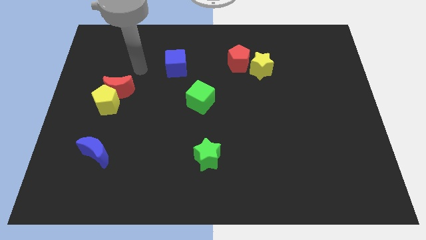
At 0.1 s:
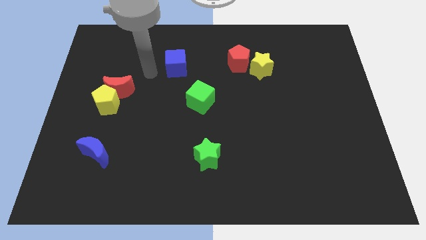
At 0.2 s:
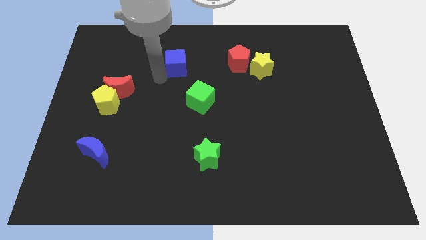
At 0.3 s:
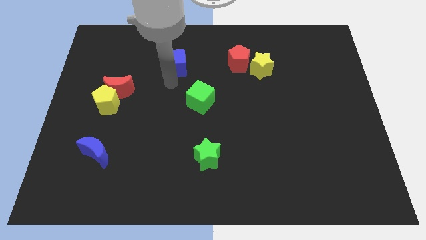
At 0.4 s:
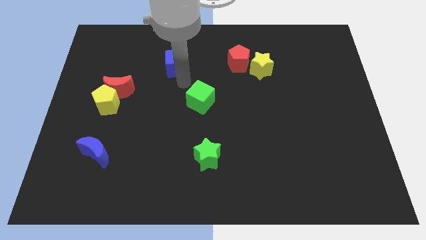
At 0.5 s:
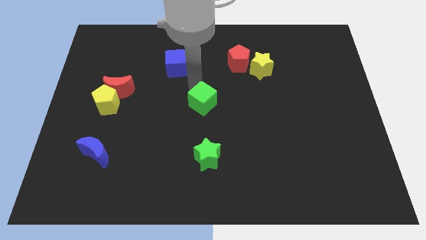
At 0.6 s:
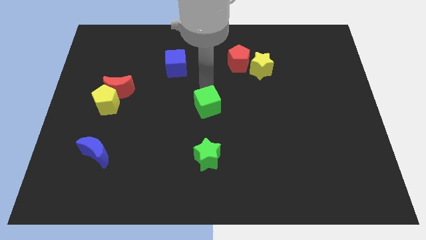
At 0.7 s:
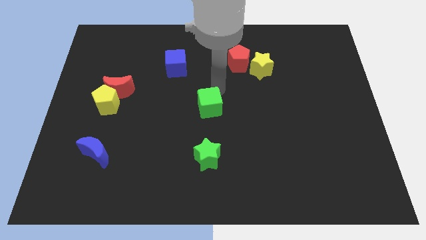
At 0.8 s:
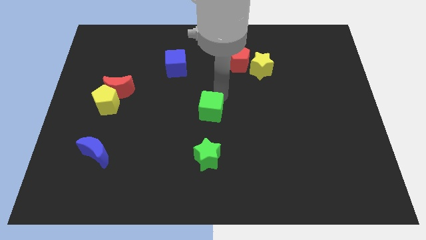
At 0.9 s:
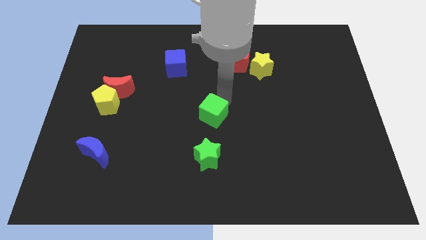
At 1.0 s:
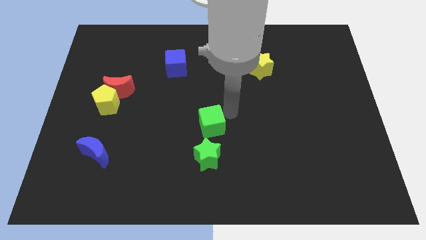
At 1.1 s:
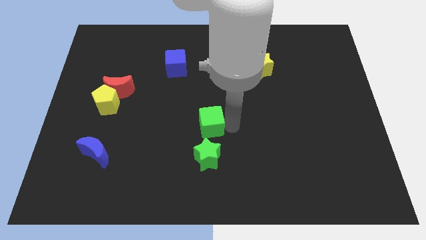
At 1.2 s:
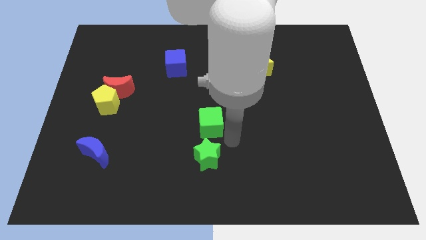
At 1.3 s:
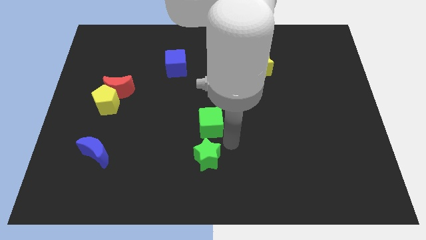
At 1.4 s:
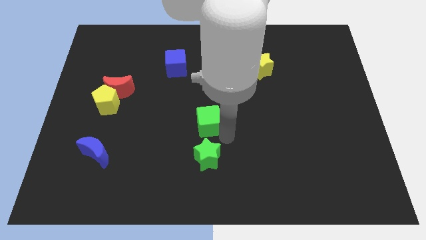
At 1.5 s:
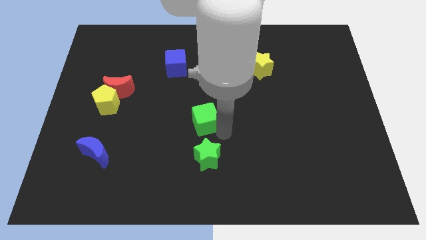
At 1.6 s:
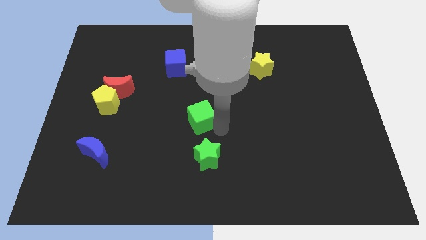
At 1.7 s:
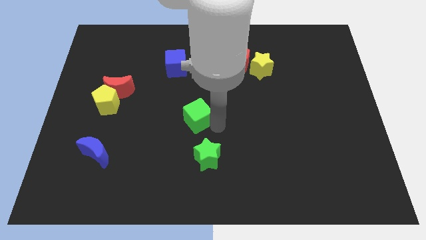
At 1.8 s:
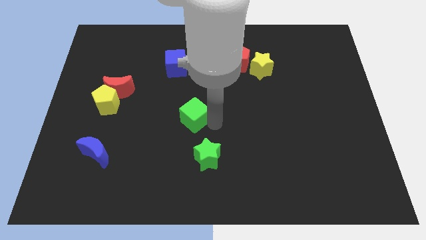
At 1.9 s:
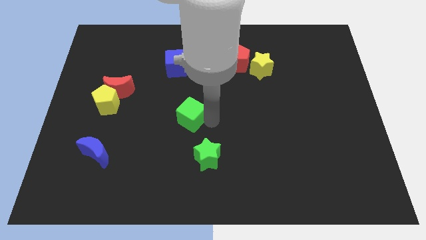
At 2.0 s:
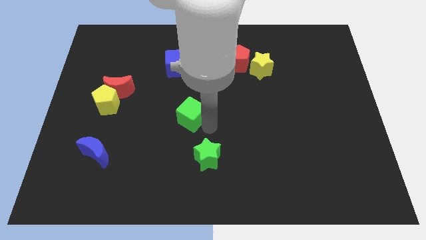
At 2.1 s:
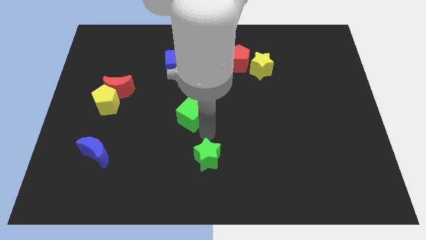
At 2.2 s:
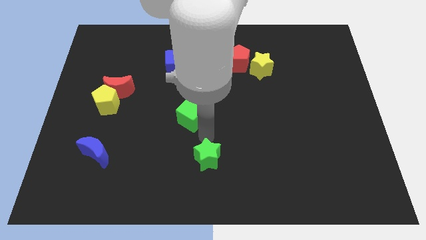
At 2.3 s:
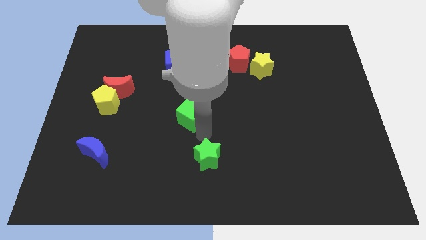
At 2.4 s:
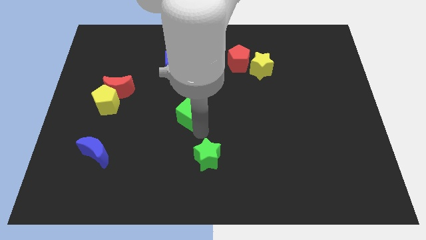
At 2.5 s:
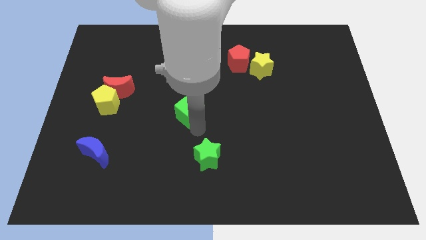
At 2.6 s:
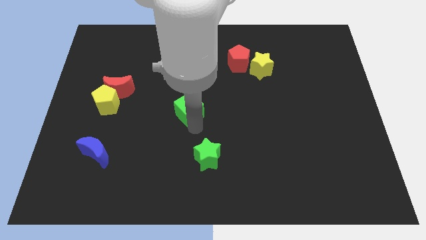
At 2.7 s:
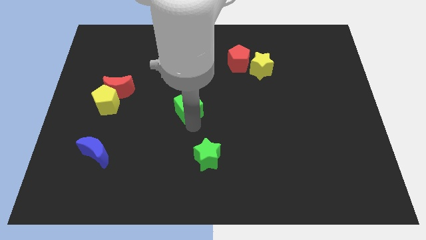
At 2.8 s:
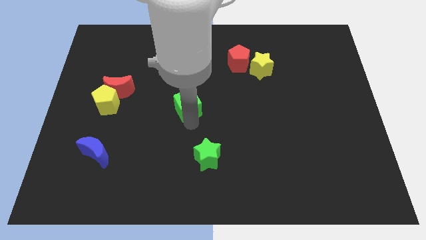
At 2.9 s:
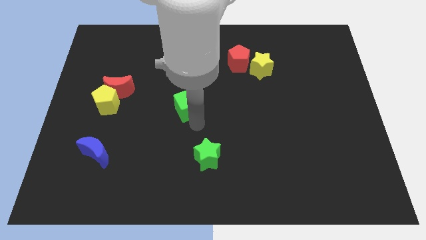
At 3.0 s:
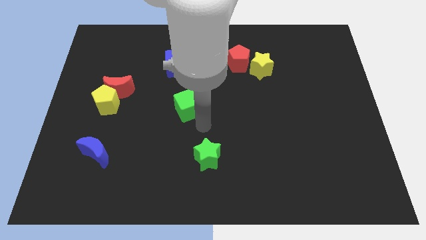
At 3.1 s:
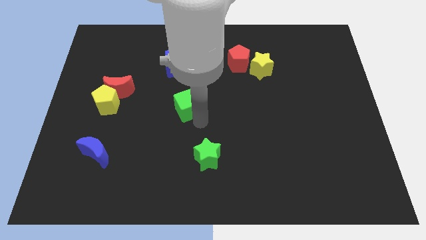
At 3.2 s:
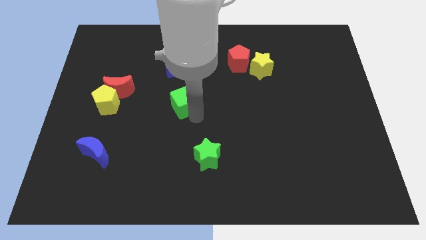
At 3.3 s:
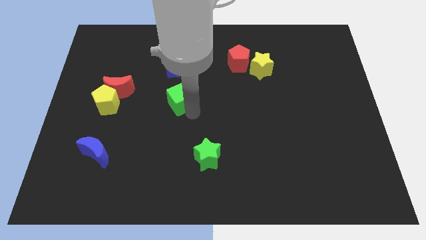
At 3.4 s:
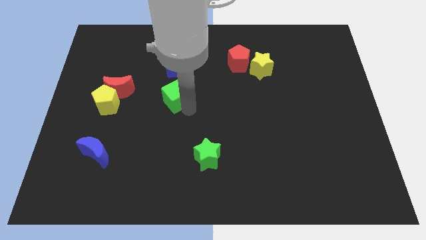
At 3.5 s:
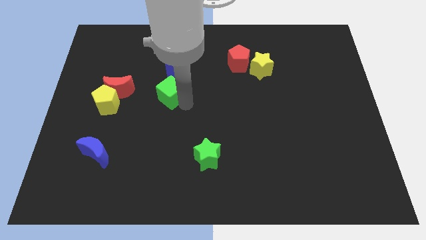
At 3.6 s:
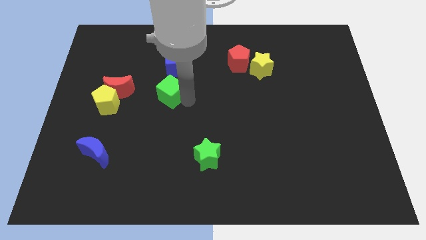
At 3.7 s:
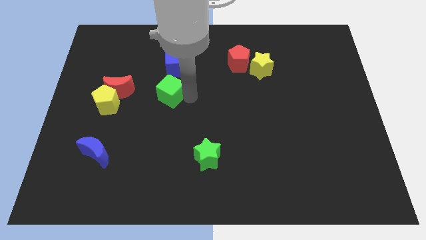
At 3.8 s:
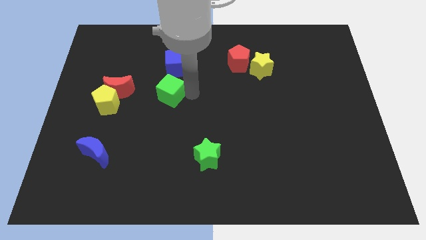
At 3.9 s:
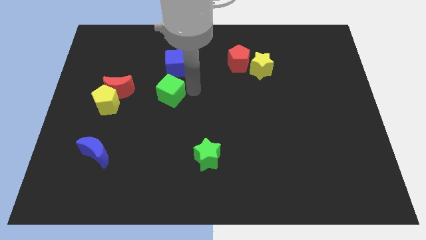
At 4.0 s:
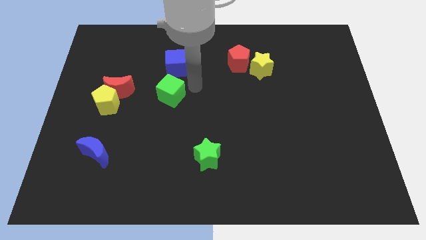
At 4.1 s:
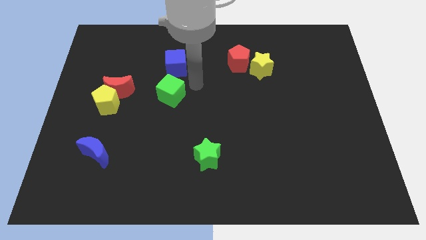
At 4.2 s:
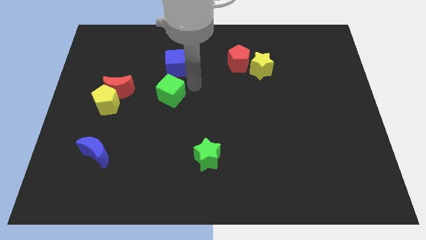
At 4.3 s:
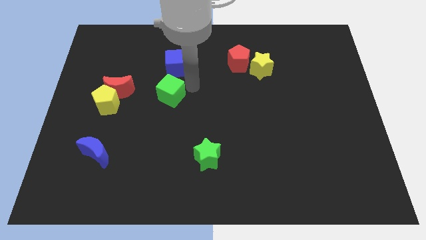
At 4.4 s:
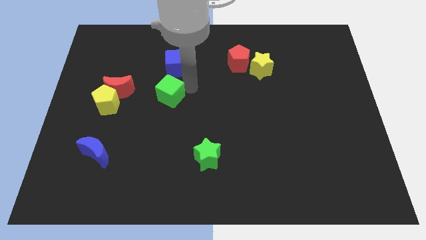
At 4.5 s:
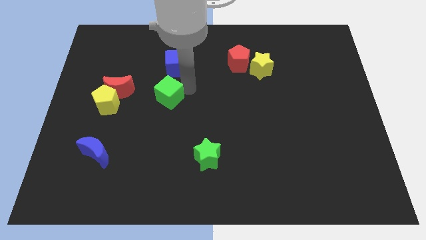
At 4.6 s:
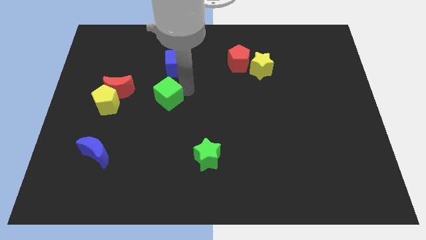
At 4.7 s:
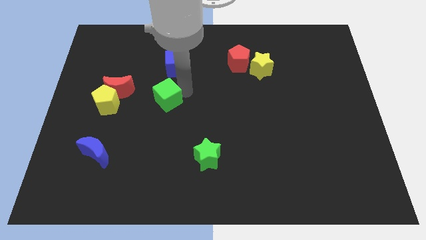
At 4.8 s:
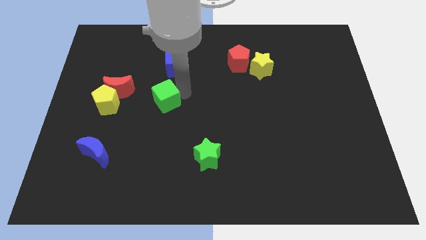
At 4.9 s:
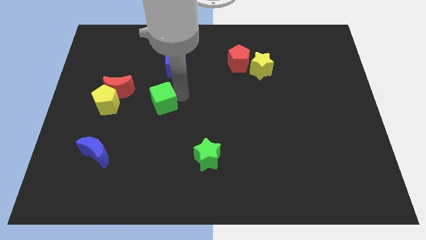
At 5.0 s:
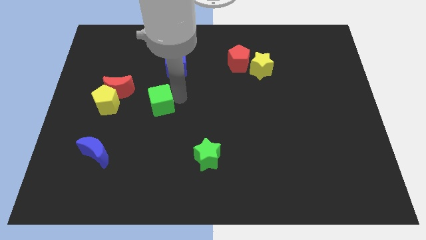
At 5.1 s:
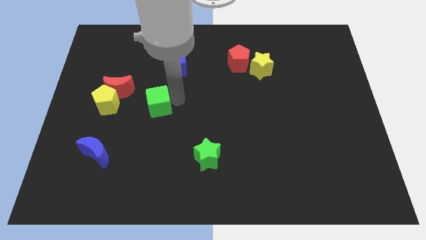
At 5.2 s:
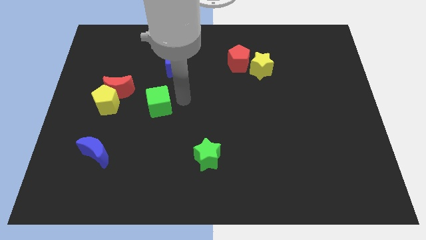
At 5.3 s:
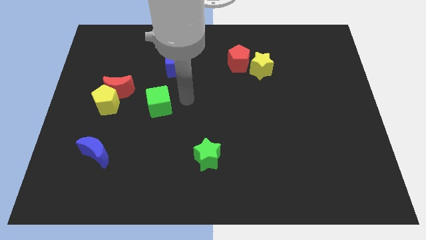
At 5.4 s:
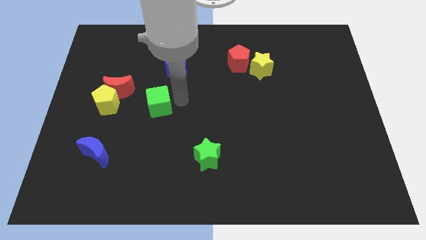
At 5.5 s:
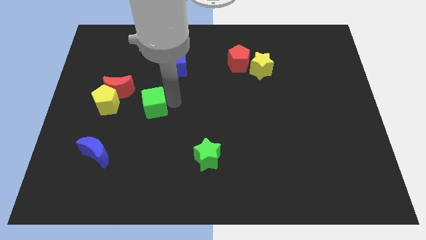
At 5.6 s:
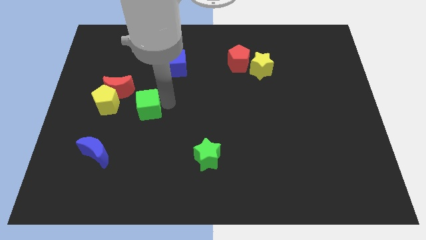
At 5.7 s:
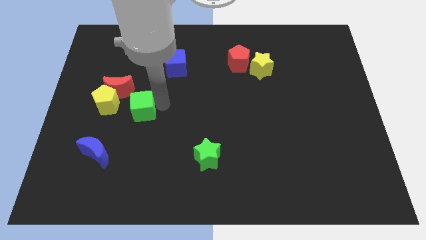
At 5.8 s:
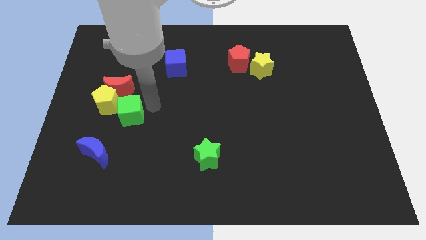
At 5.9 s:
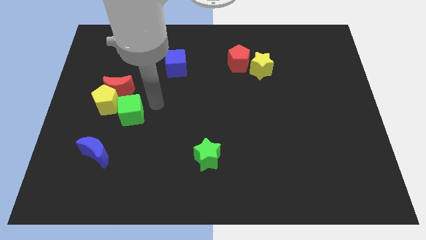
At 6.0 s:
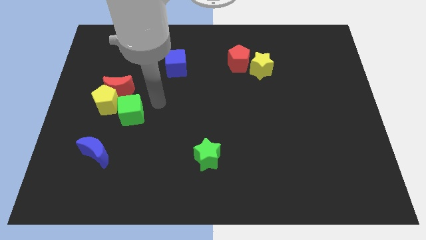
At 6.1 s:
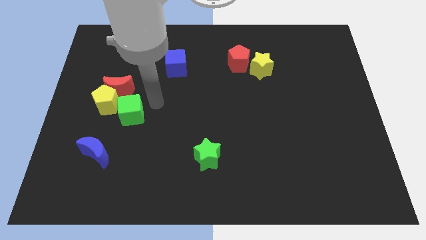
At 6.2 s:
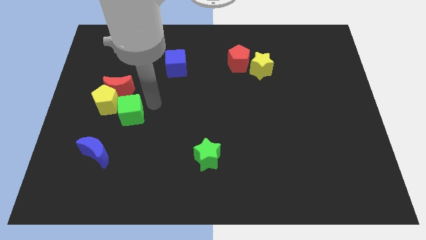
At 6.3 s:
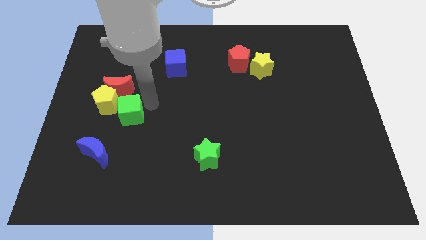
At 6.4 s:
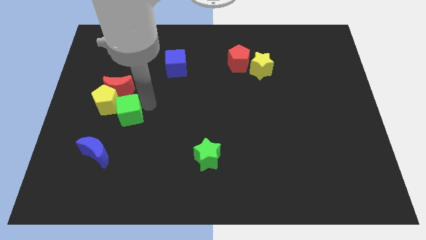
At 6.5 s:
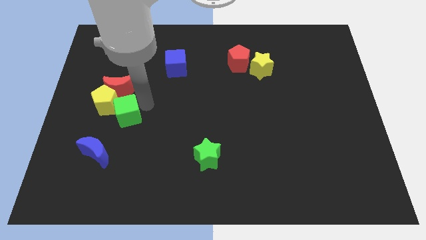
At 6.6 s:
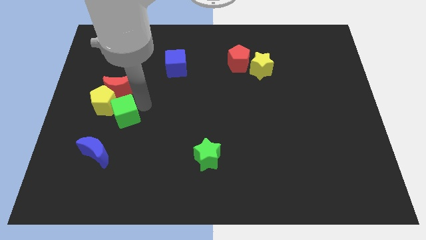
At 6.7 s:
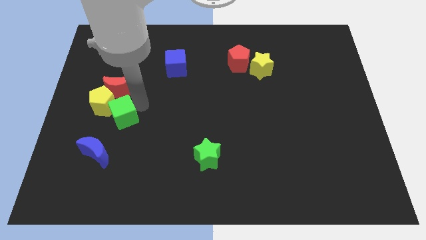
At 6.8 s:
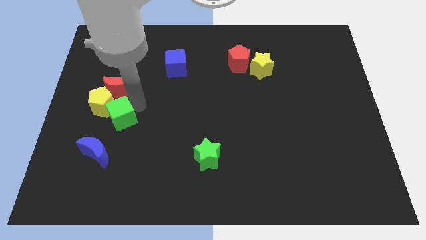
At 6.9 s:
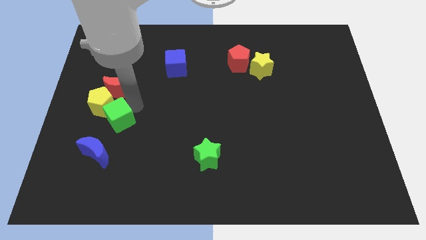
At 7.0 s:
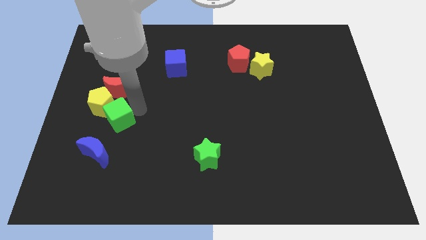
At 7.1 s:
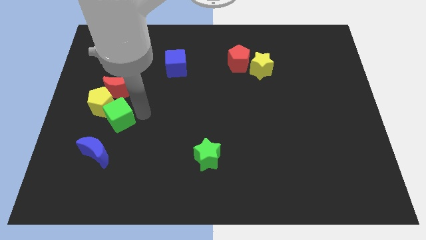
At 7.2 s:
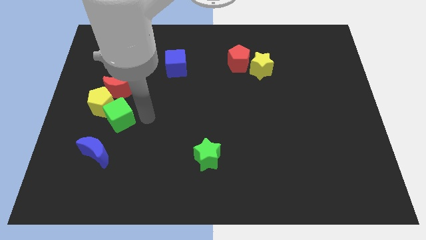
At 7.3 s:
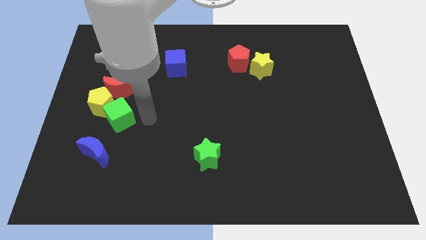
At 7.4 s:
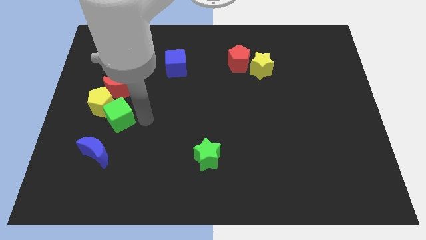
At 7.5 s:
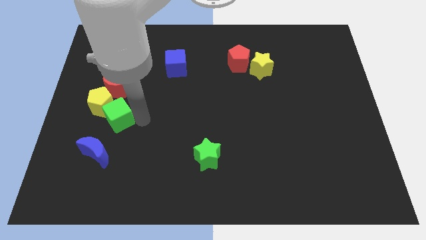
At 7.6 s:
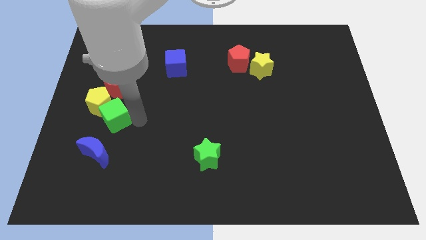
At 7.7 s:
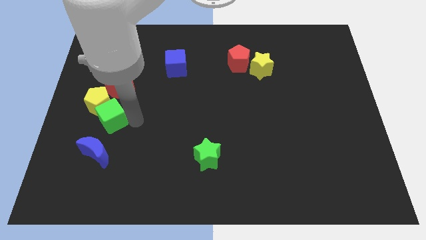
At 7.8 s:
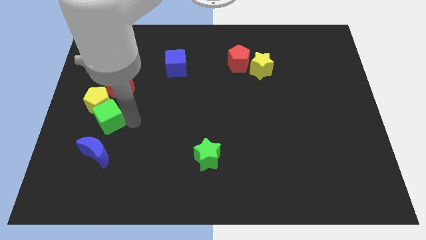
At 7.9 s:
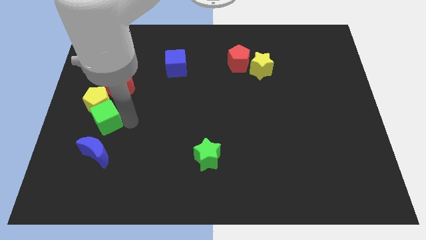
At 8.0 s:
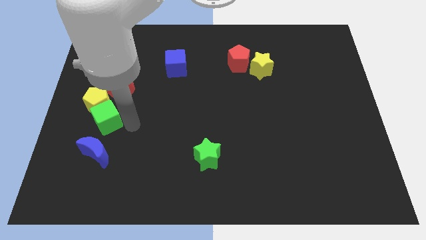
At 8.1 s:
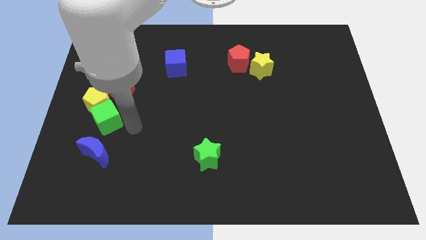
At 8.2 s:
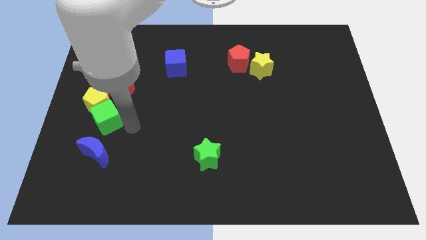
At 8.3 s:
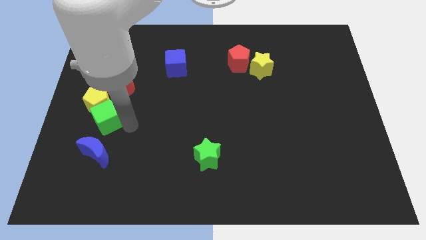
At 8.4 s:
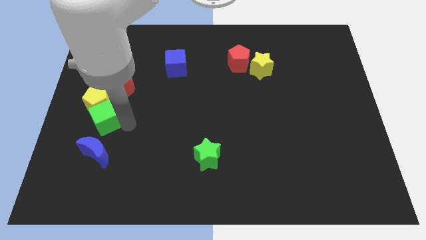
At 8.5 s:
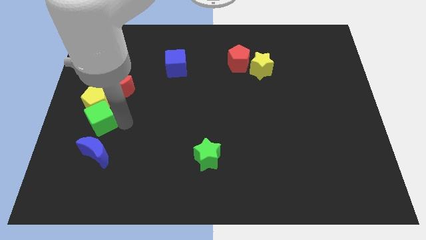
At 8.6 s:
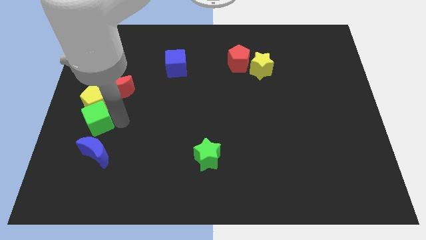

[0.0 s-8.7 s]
slide the green cube to the left side
